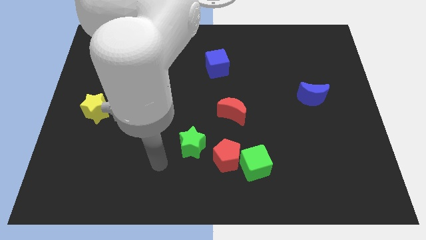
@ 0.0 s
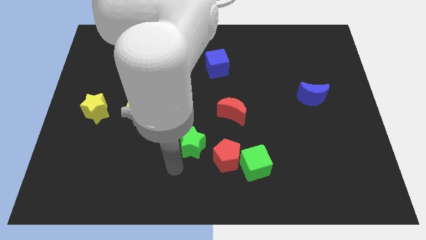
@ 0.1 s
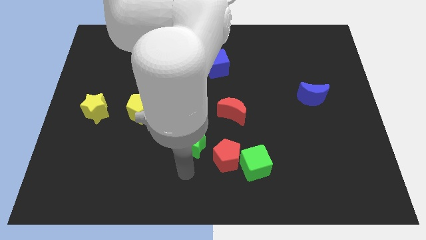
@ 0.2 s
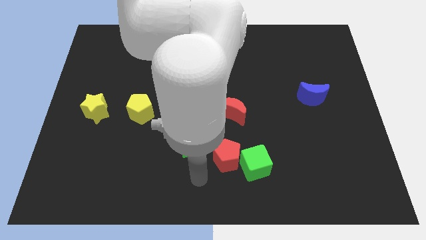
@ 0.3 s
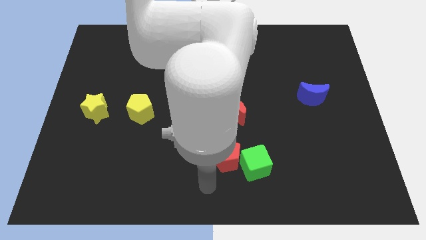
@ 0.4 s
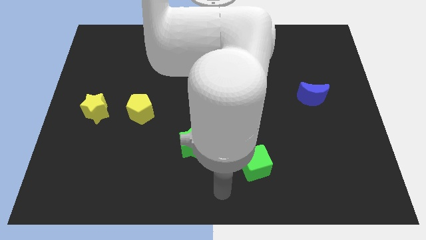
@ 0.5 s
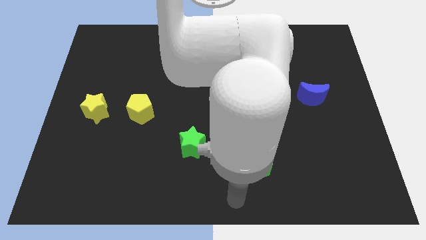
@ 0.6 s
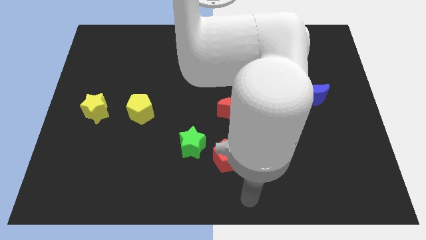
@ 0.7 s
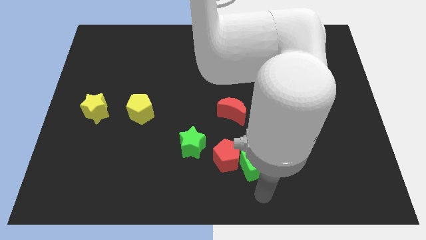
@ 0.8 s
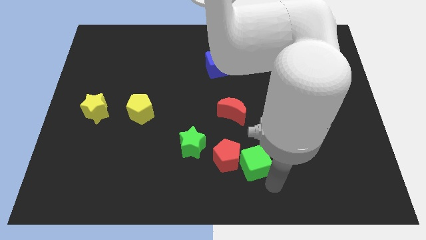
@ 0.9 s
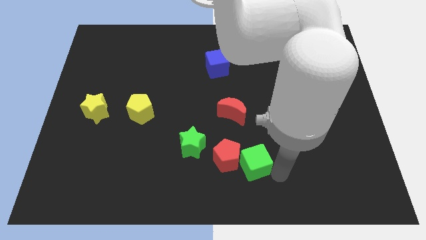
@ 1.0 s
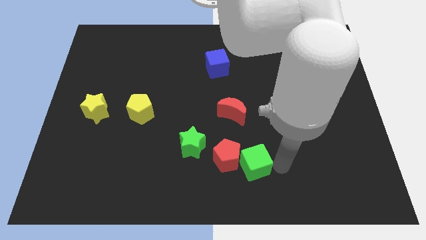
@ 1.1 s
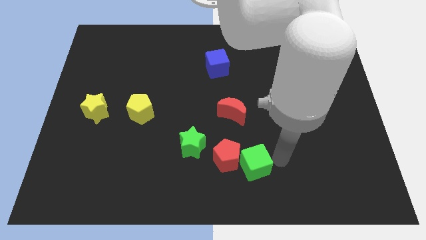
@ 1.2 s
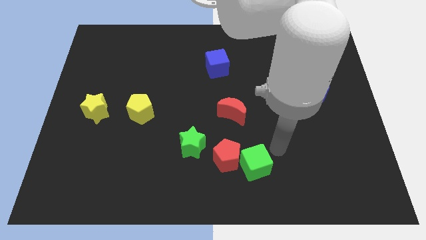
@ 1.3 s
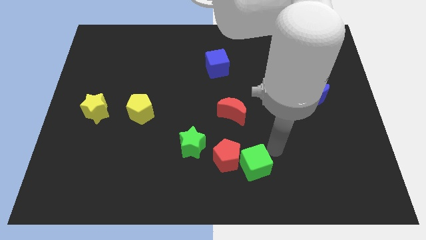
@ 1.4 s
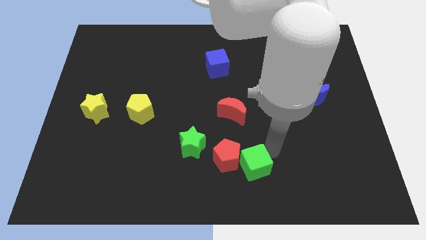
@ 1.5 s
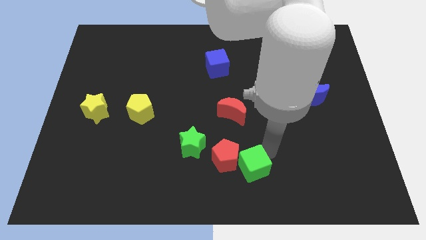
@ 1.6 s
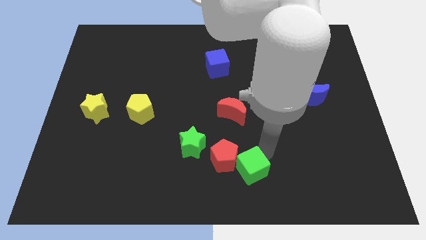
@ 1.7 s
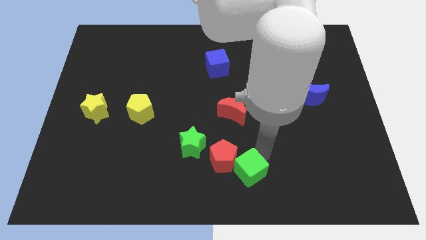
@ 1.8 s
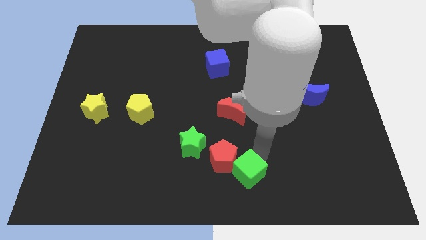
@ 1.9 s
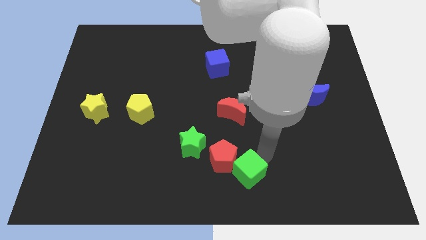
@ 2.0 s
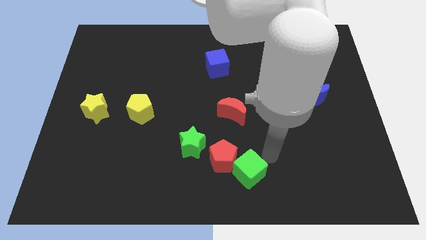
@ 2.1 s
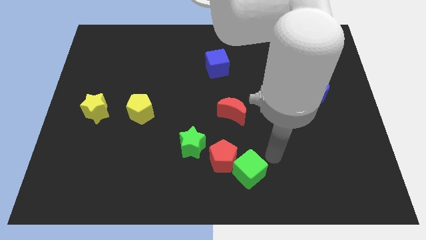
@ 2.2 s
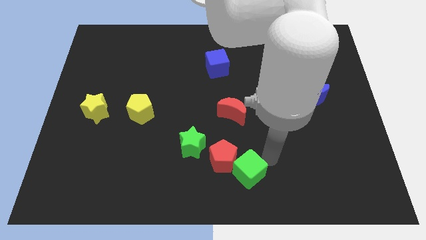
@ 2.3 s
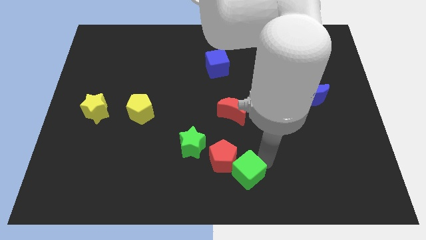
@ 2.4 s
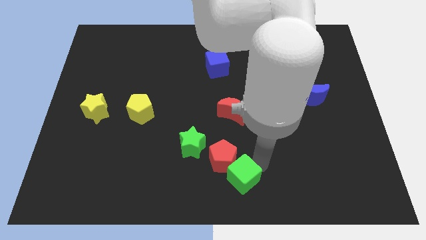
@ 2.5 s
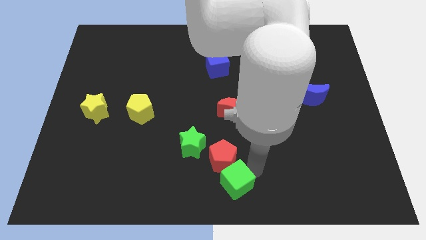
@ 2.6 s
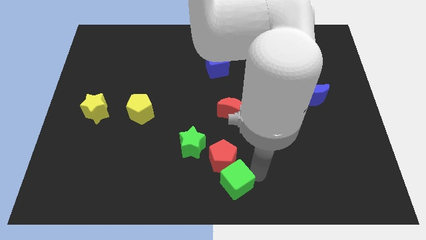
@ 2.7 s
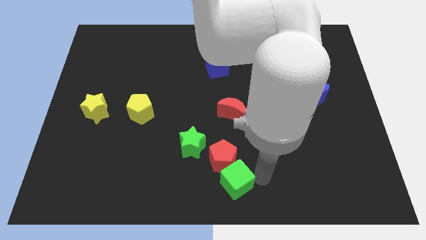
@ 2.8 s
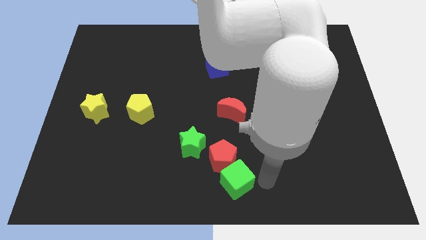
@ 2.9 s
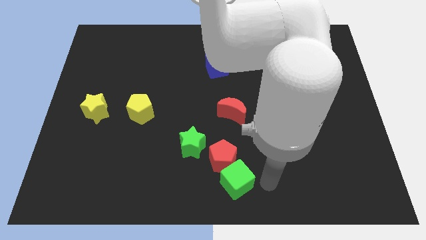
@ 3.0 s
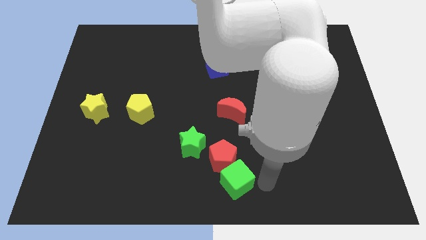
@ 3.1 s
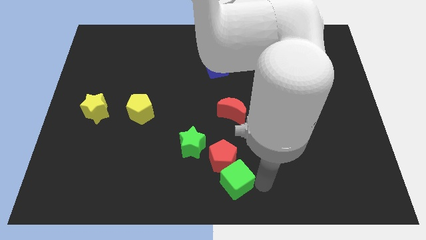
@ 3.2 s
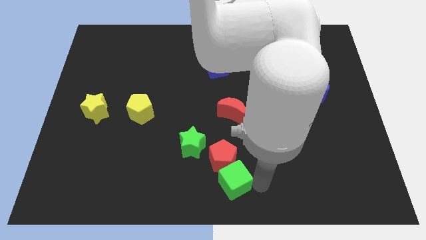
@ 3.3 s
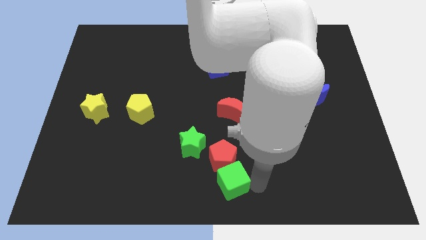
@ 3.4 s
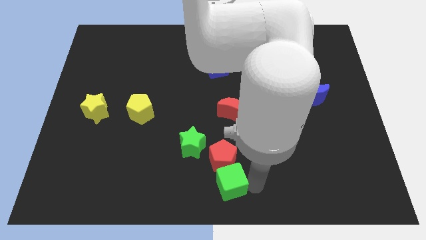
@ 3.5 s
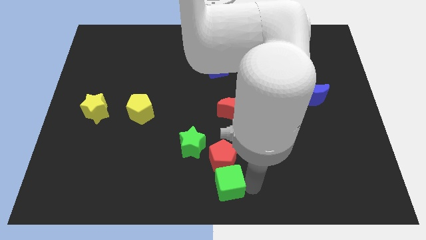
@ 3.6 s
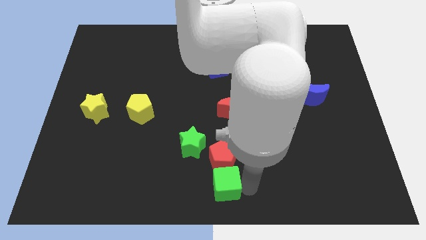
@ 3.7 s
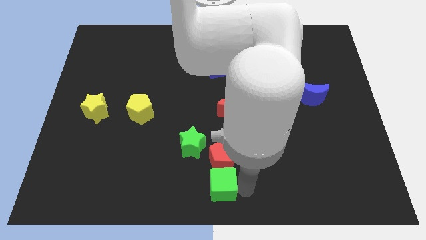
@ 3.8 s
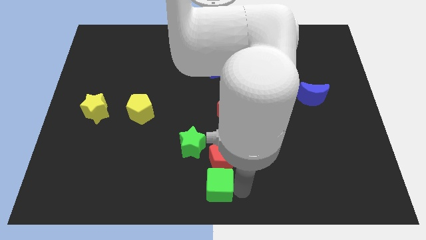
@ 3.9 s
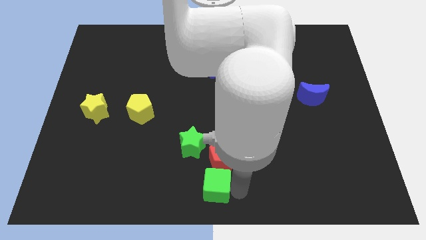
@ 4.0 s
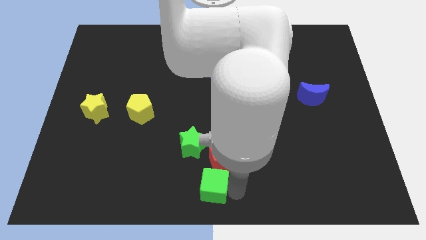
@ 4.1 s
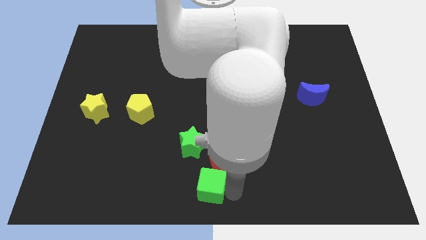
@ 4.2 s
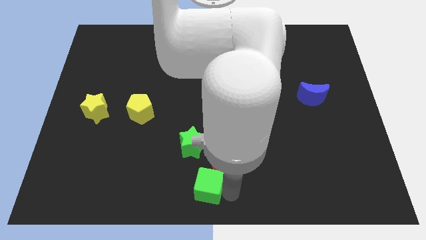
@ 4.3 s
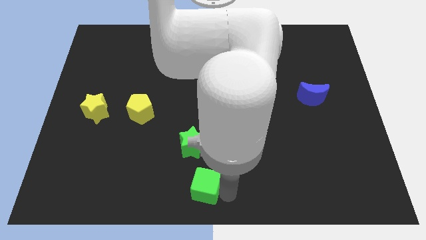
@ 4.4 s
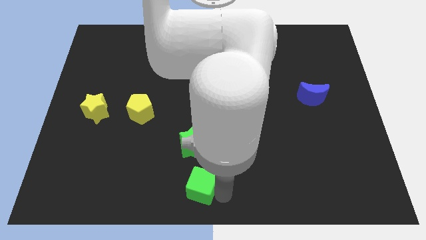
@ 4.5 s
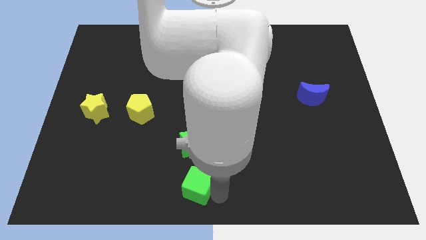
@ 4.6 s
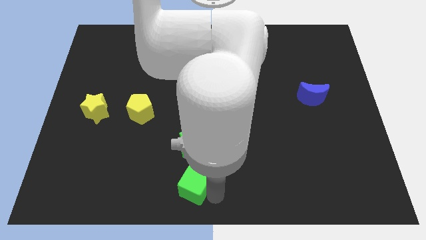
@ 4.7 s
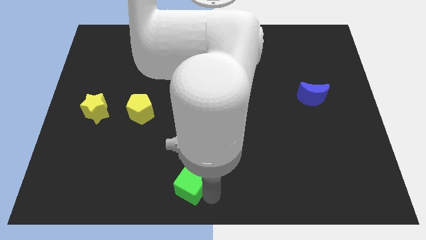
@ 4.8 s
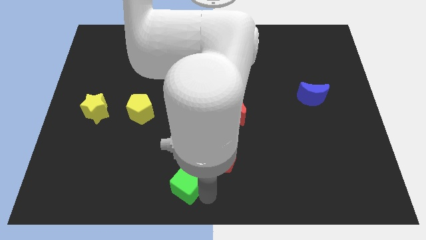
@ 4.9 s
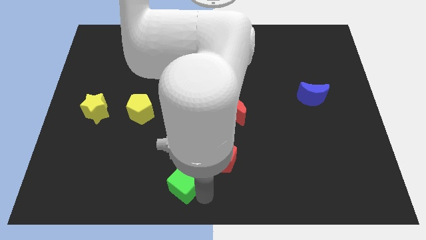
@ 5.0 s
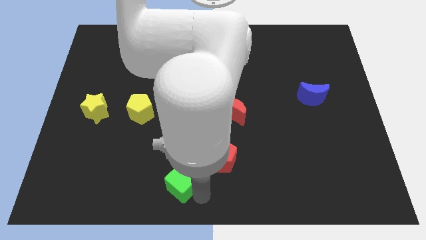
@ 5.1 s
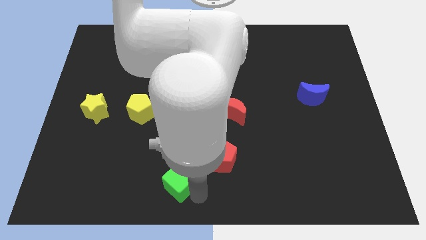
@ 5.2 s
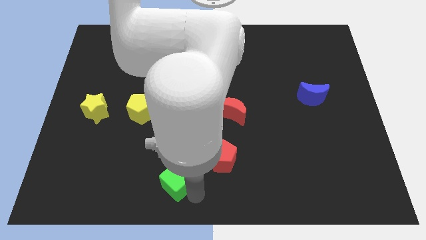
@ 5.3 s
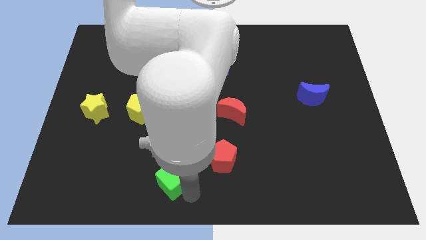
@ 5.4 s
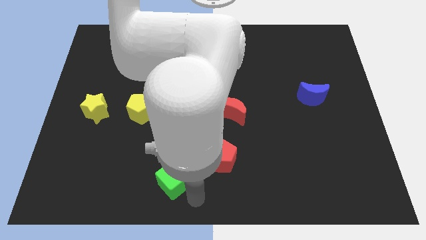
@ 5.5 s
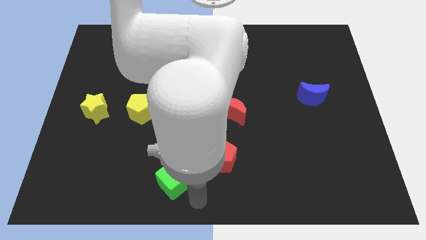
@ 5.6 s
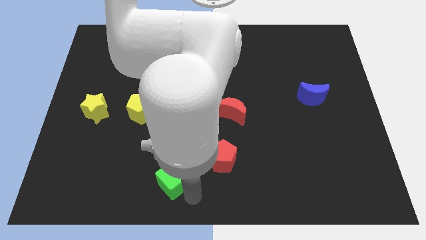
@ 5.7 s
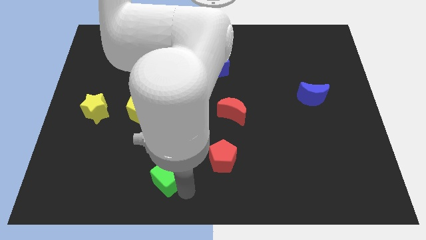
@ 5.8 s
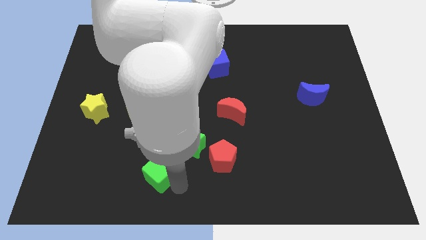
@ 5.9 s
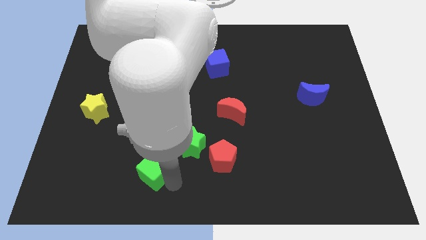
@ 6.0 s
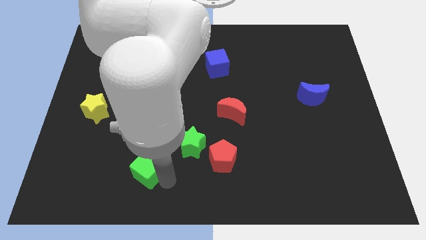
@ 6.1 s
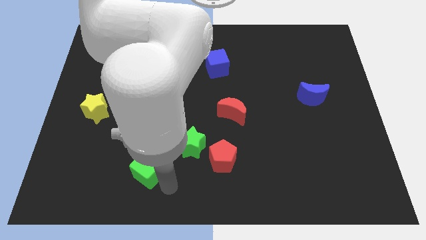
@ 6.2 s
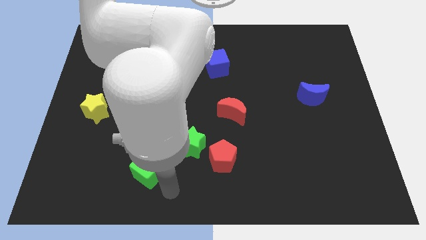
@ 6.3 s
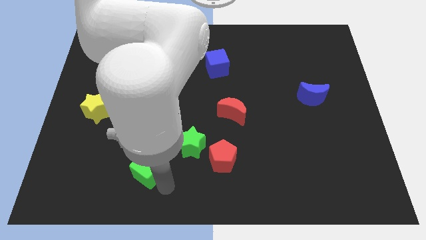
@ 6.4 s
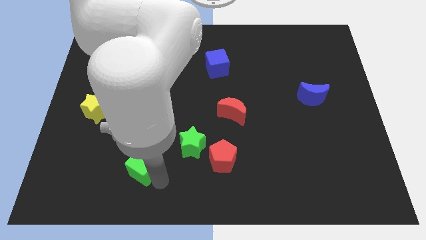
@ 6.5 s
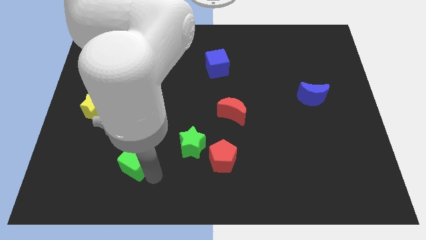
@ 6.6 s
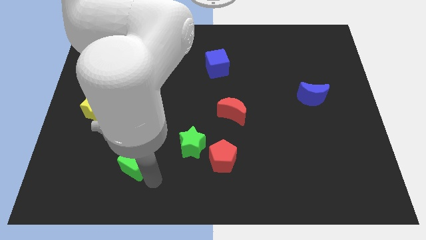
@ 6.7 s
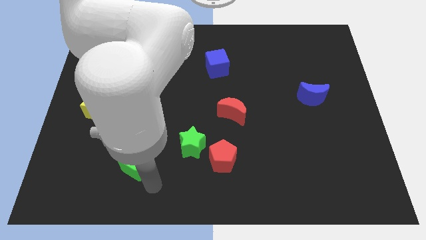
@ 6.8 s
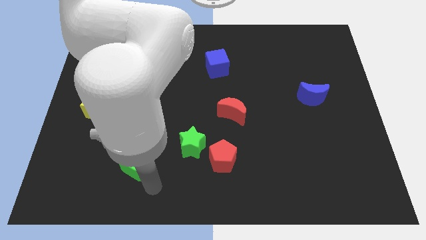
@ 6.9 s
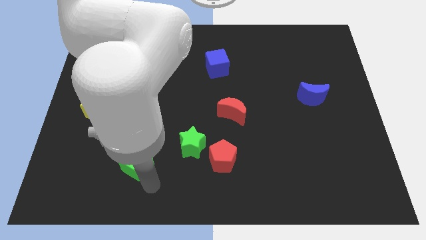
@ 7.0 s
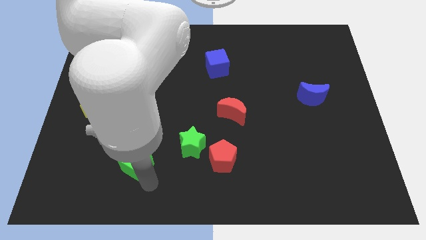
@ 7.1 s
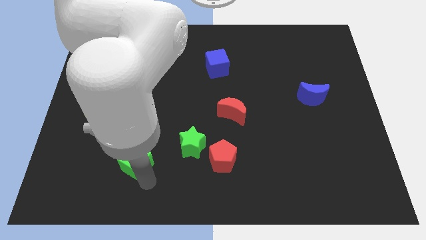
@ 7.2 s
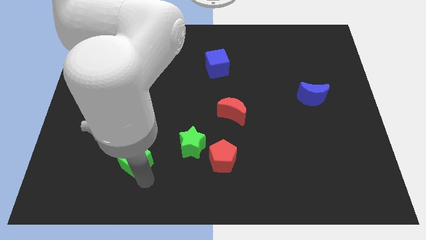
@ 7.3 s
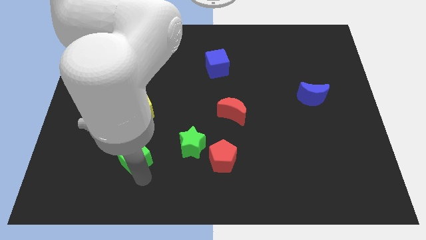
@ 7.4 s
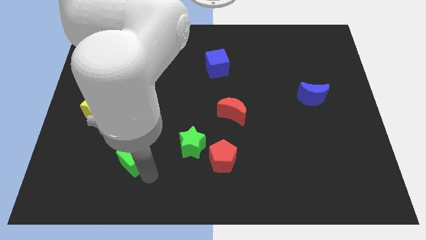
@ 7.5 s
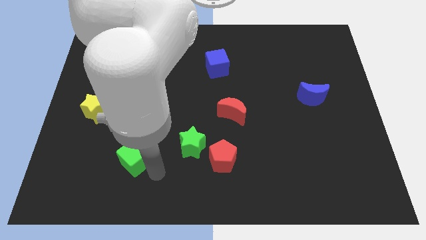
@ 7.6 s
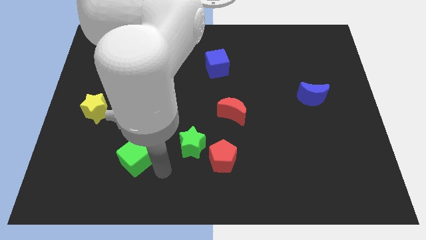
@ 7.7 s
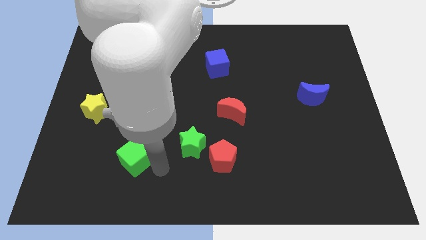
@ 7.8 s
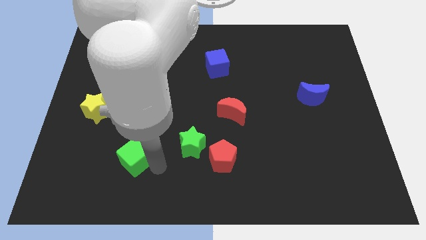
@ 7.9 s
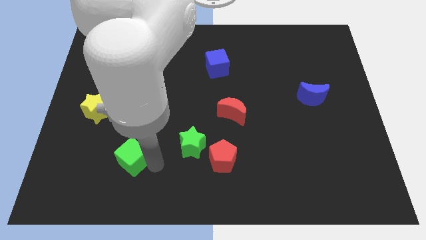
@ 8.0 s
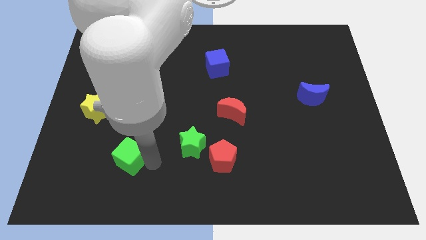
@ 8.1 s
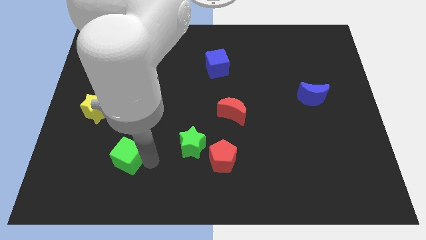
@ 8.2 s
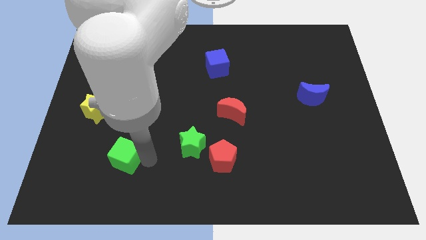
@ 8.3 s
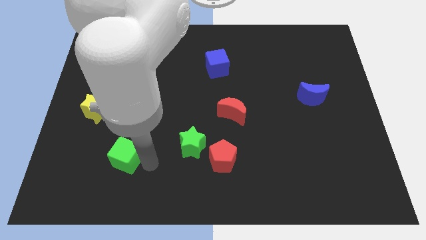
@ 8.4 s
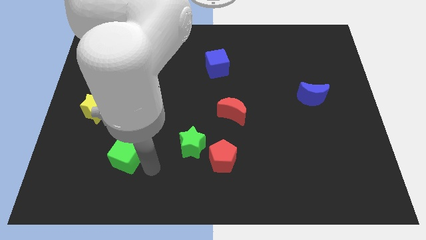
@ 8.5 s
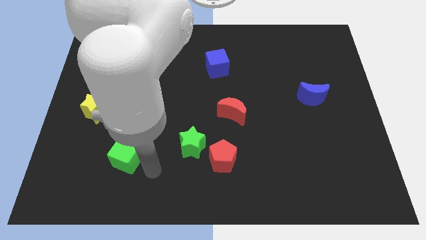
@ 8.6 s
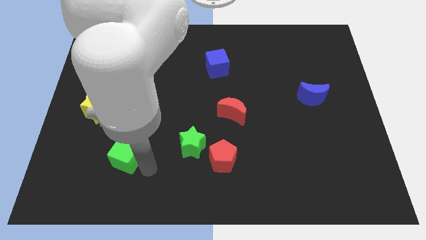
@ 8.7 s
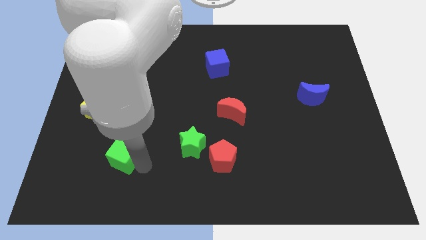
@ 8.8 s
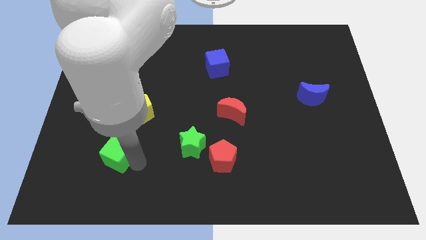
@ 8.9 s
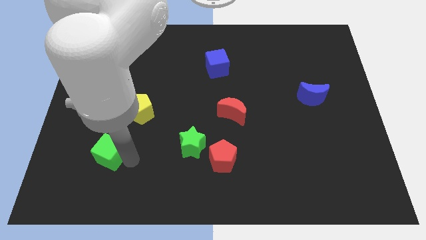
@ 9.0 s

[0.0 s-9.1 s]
move the green cube below the yellow star
